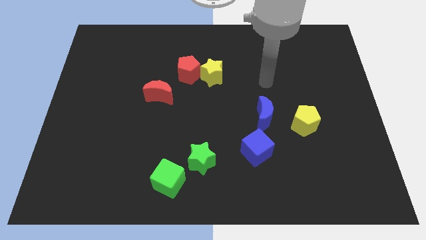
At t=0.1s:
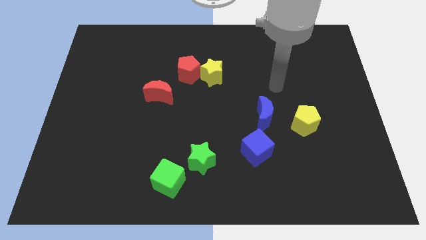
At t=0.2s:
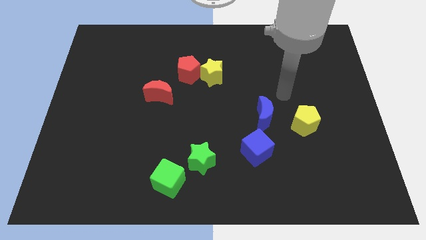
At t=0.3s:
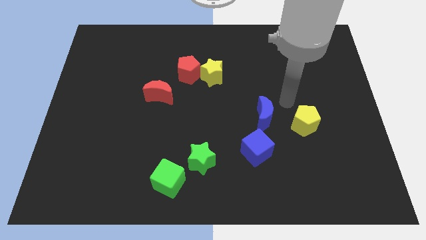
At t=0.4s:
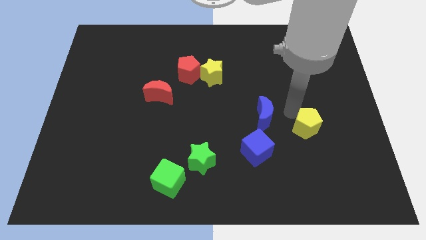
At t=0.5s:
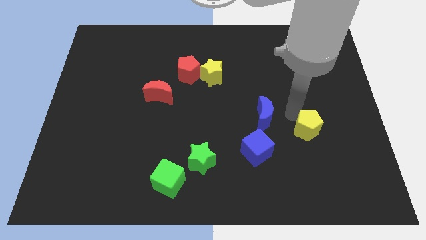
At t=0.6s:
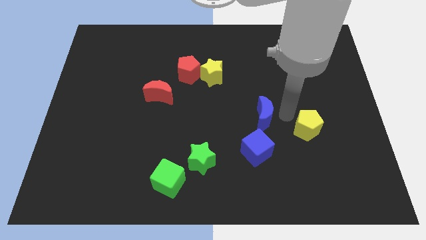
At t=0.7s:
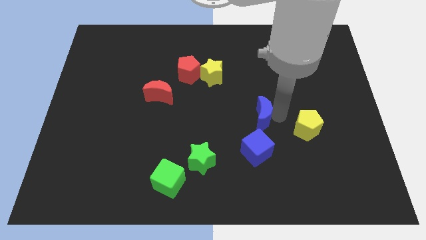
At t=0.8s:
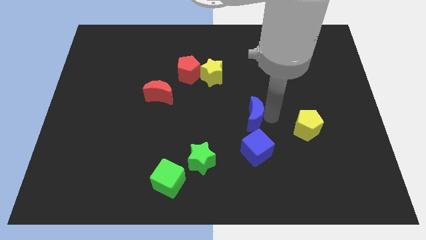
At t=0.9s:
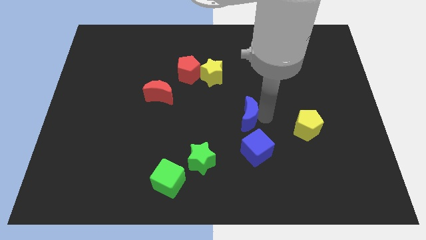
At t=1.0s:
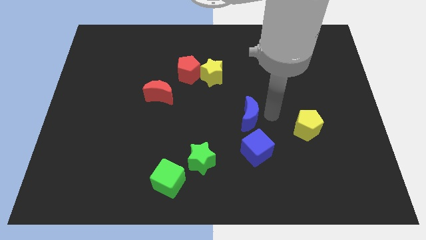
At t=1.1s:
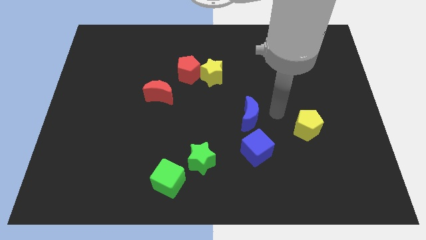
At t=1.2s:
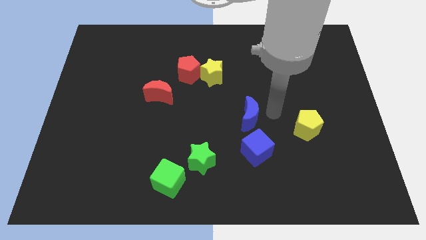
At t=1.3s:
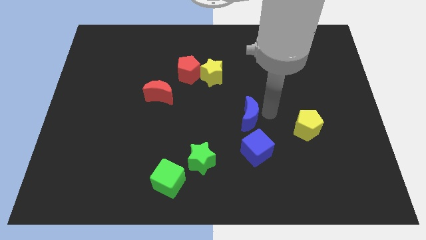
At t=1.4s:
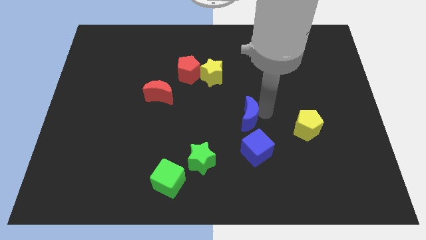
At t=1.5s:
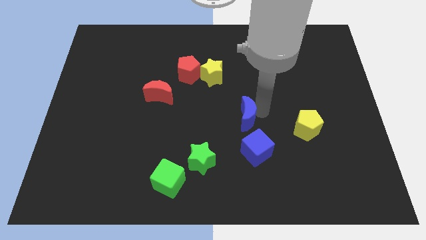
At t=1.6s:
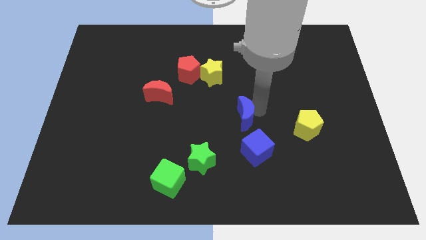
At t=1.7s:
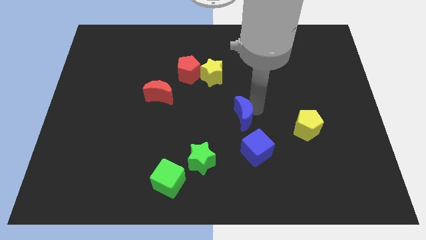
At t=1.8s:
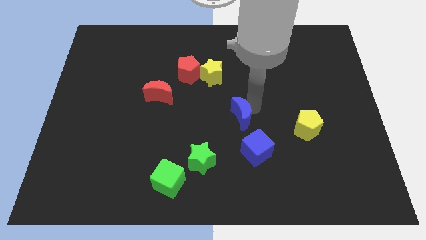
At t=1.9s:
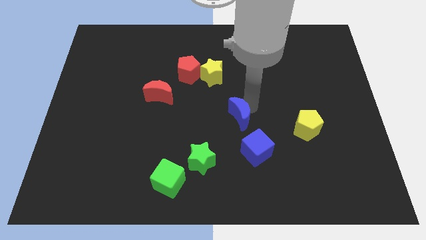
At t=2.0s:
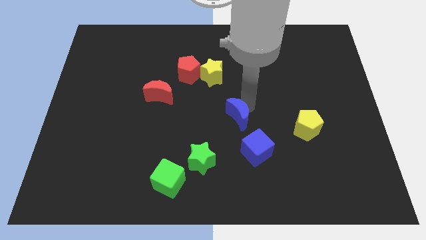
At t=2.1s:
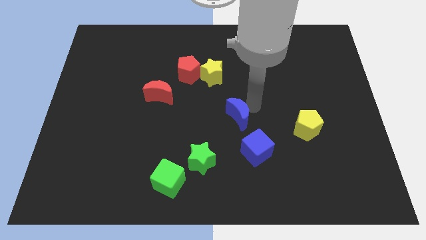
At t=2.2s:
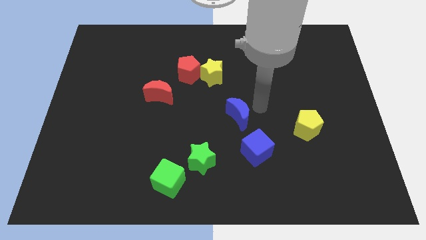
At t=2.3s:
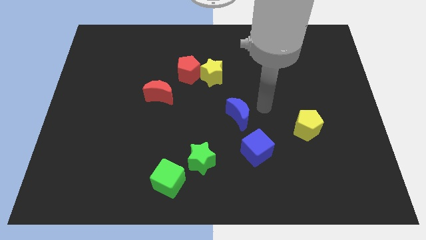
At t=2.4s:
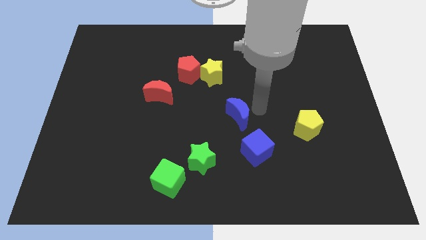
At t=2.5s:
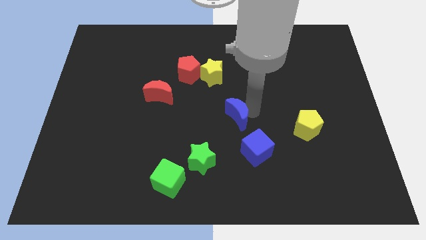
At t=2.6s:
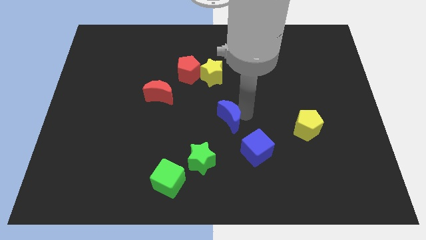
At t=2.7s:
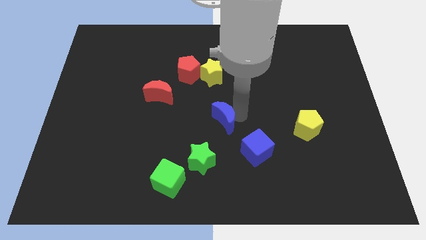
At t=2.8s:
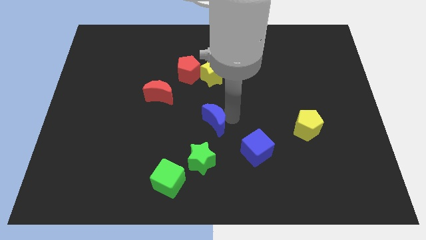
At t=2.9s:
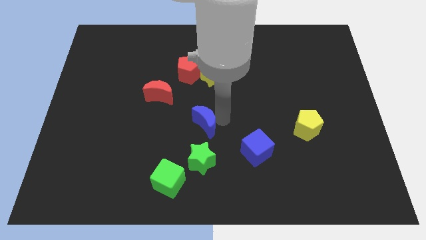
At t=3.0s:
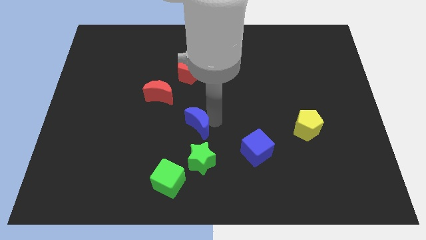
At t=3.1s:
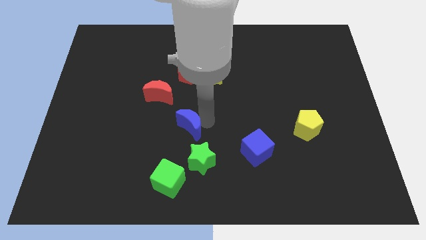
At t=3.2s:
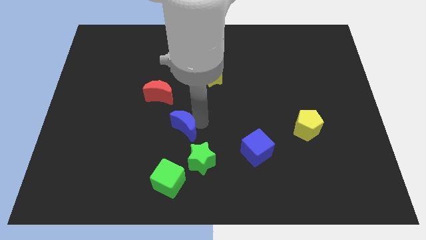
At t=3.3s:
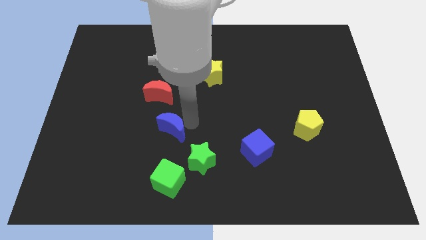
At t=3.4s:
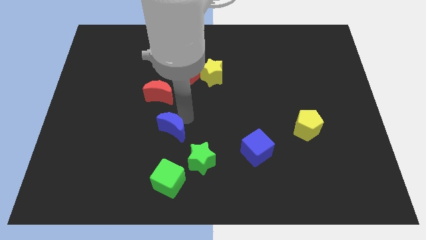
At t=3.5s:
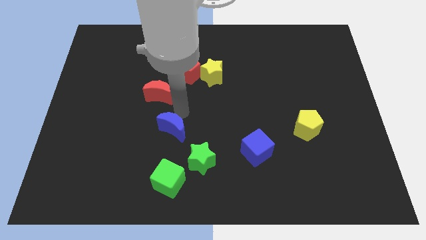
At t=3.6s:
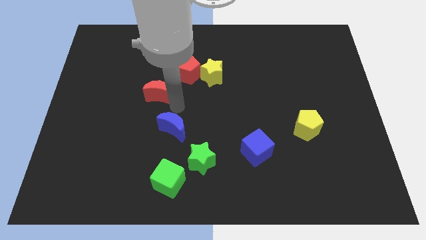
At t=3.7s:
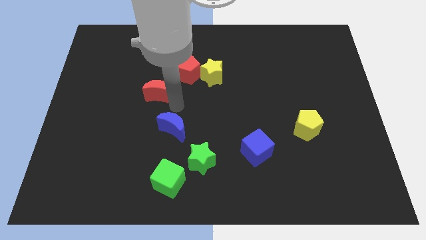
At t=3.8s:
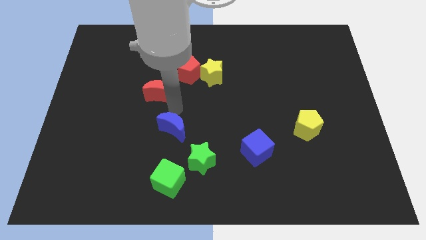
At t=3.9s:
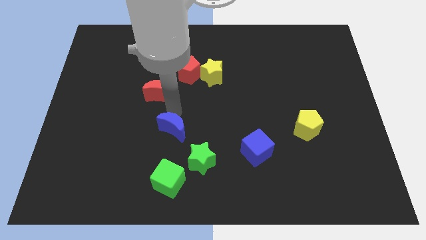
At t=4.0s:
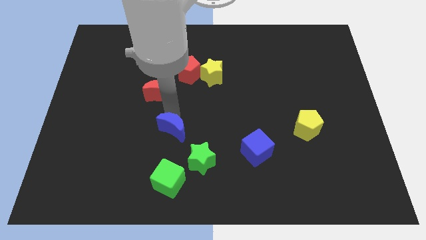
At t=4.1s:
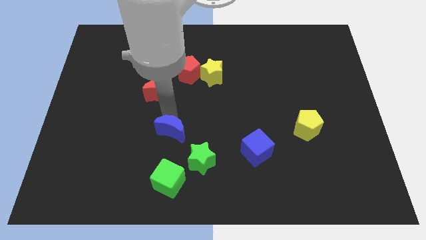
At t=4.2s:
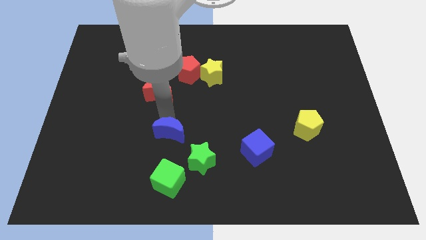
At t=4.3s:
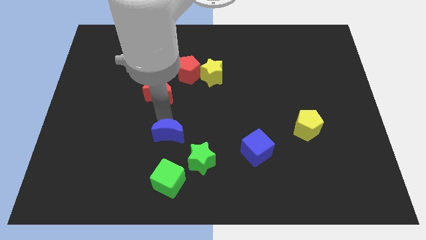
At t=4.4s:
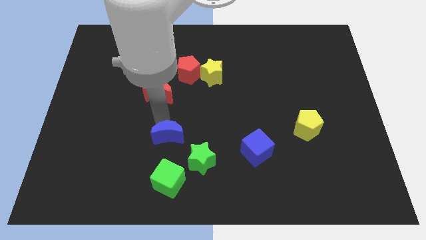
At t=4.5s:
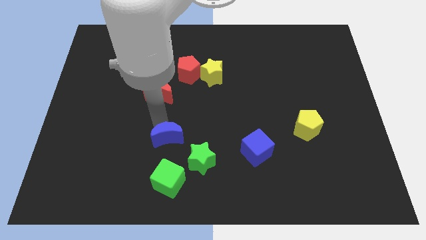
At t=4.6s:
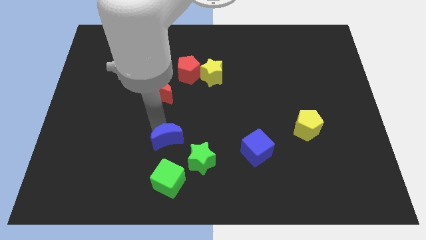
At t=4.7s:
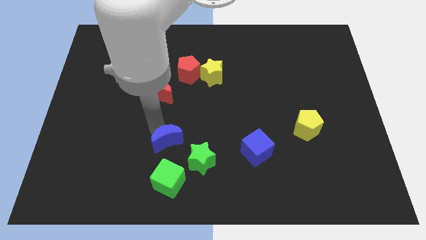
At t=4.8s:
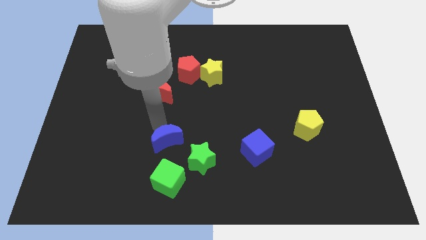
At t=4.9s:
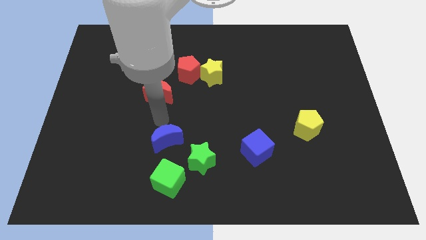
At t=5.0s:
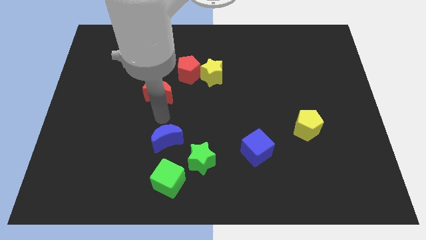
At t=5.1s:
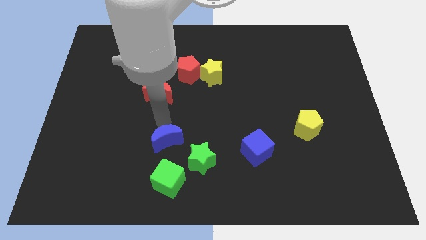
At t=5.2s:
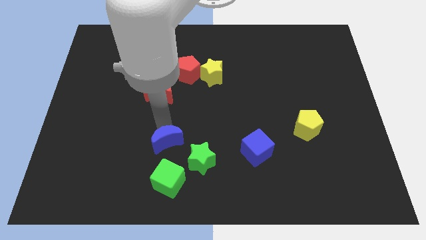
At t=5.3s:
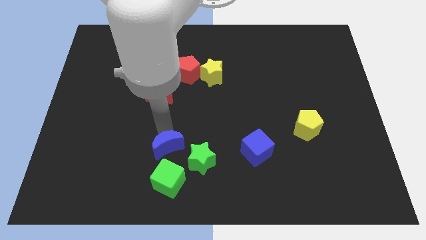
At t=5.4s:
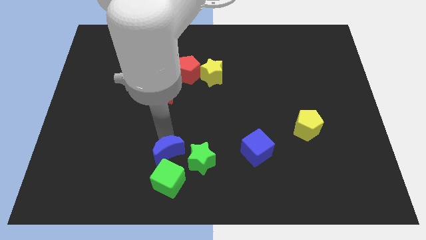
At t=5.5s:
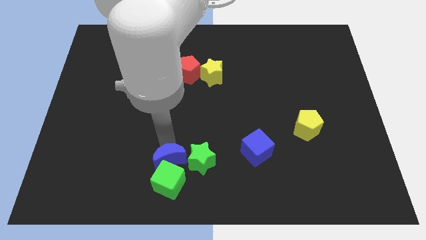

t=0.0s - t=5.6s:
move the blue moon towards the green cube

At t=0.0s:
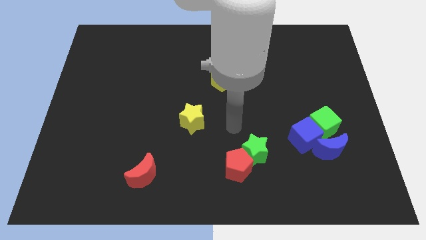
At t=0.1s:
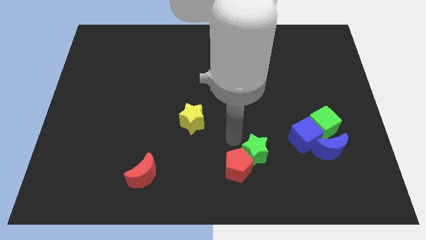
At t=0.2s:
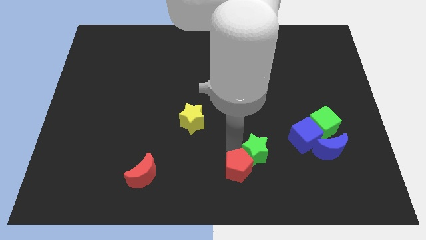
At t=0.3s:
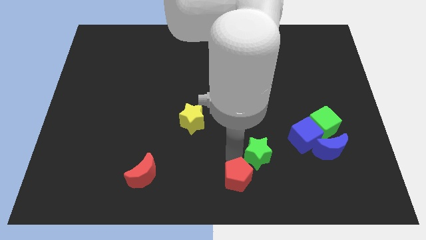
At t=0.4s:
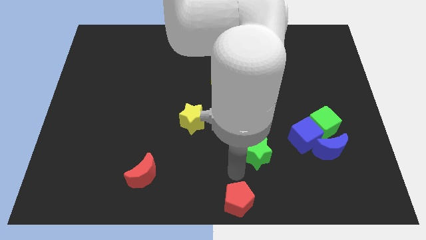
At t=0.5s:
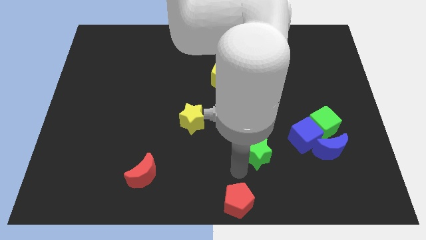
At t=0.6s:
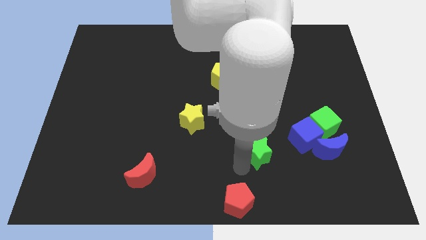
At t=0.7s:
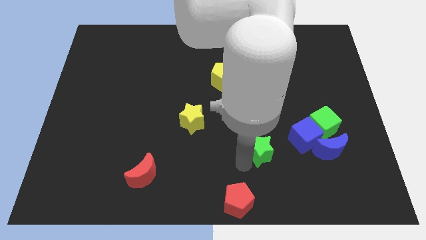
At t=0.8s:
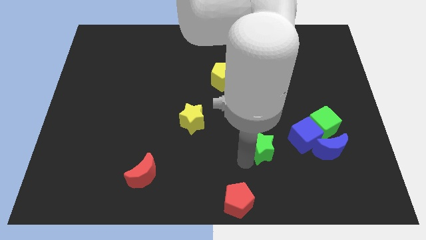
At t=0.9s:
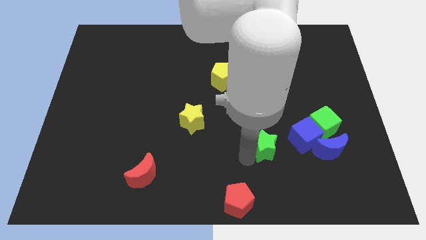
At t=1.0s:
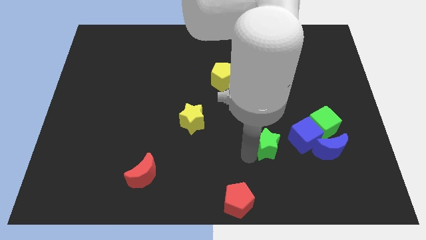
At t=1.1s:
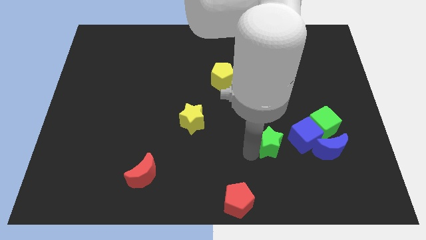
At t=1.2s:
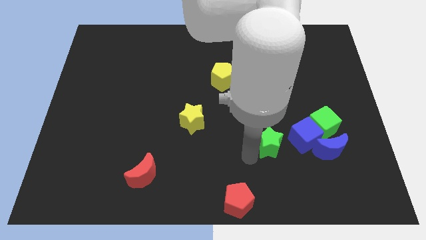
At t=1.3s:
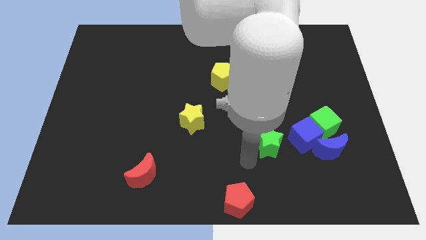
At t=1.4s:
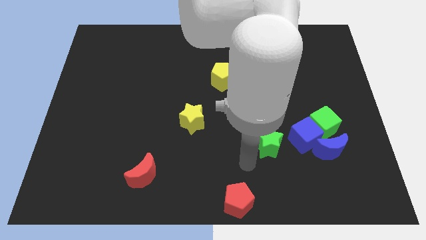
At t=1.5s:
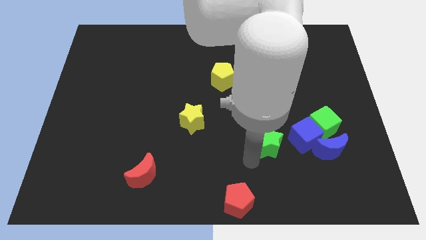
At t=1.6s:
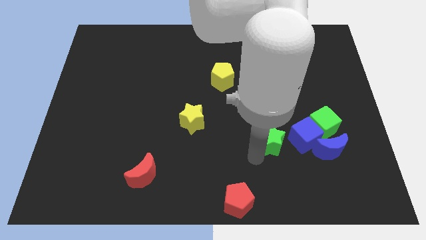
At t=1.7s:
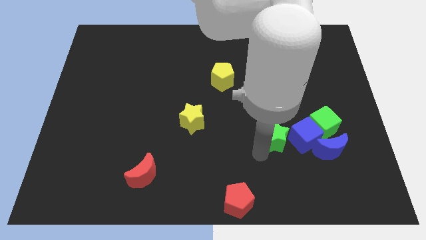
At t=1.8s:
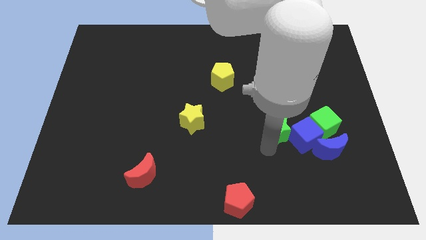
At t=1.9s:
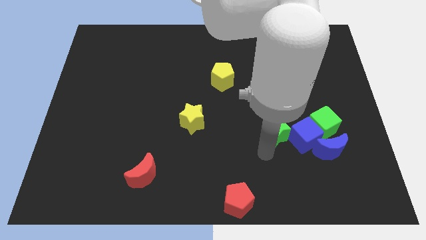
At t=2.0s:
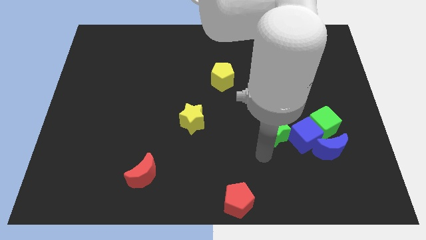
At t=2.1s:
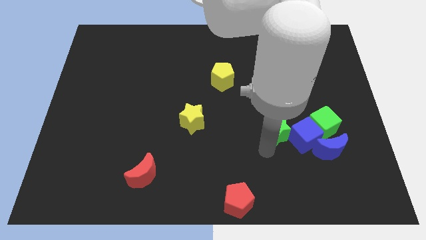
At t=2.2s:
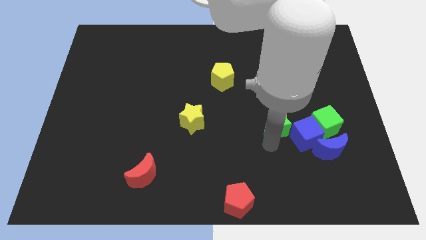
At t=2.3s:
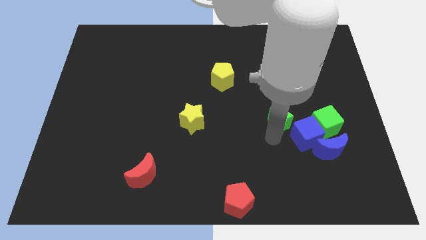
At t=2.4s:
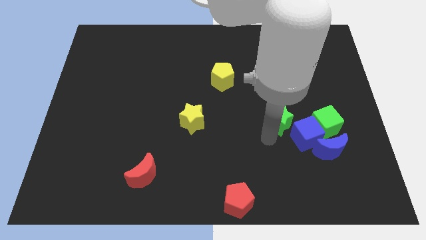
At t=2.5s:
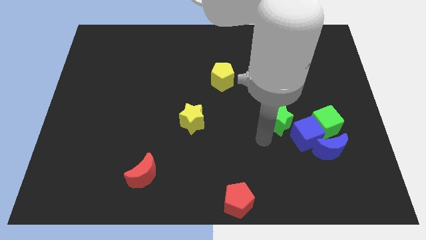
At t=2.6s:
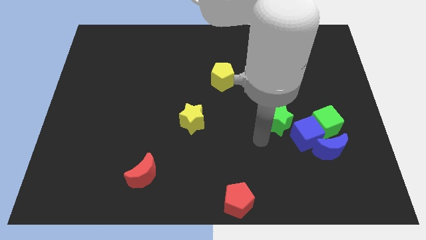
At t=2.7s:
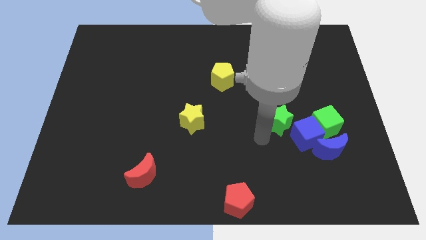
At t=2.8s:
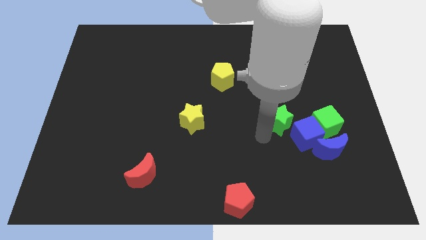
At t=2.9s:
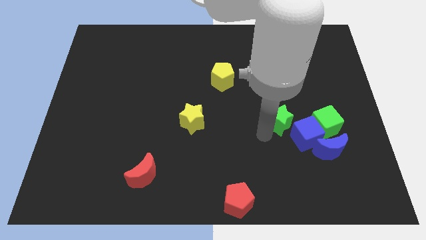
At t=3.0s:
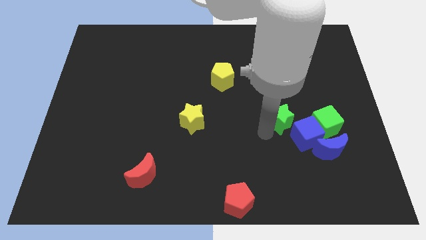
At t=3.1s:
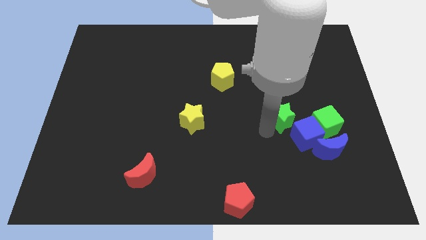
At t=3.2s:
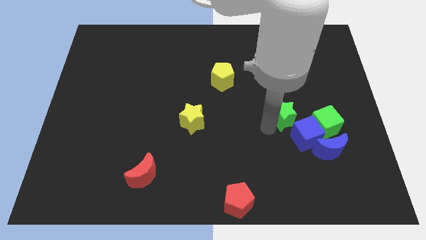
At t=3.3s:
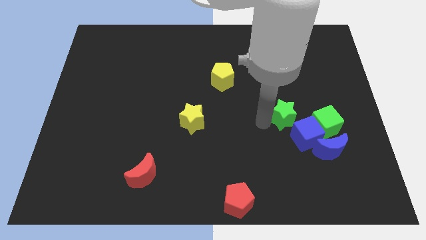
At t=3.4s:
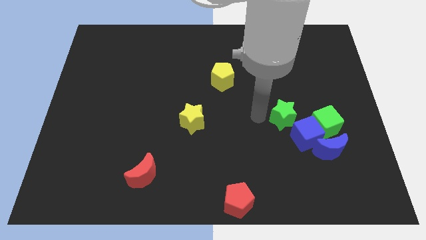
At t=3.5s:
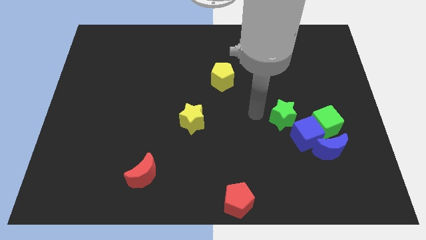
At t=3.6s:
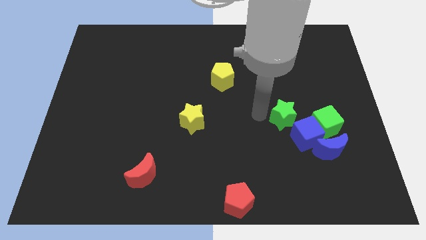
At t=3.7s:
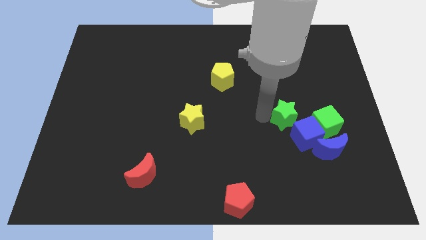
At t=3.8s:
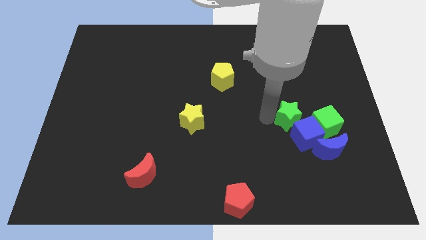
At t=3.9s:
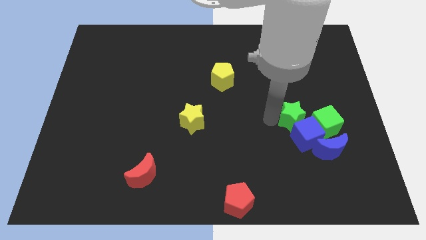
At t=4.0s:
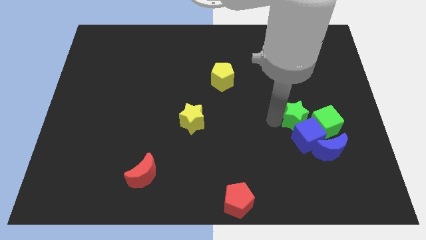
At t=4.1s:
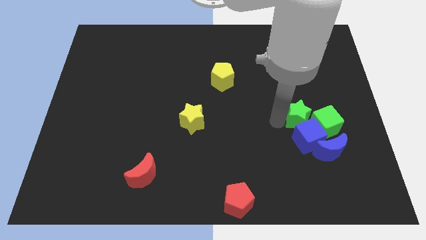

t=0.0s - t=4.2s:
move the green star towards the green cube
